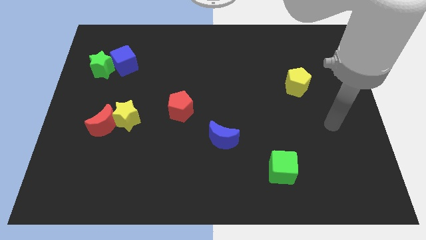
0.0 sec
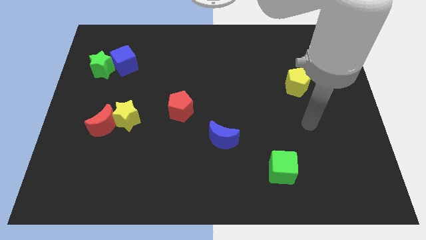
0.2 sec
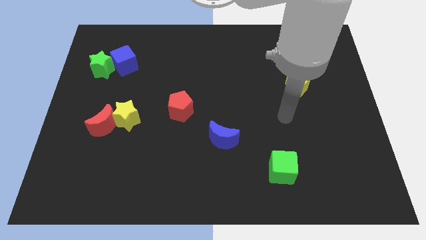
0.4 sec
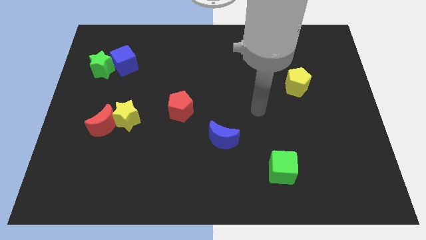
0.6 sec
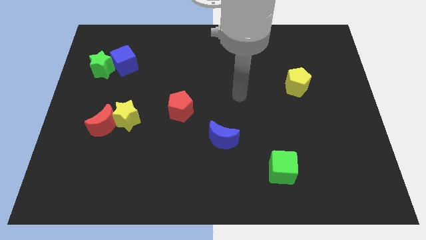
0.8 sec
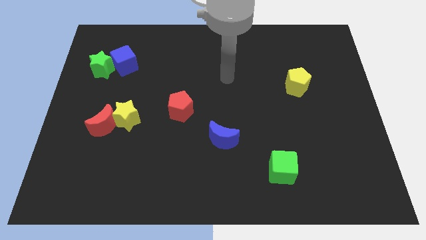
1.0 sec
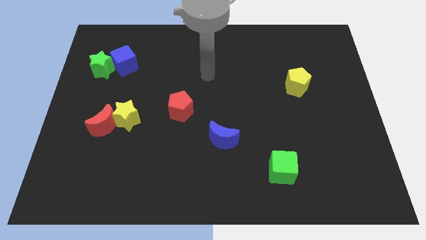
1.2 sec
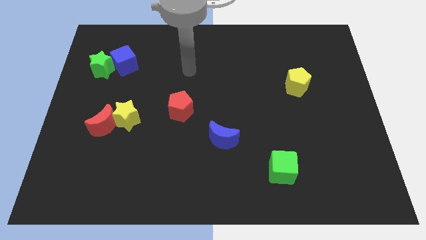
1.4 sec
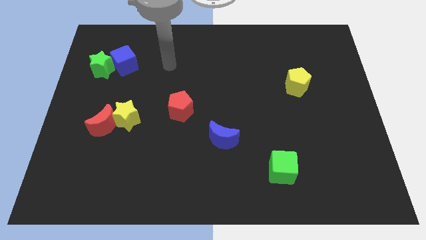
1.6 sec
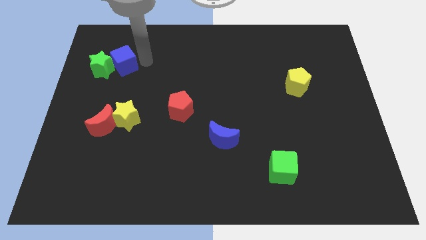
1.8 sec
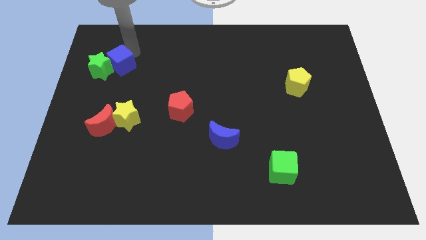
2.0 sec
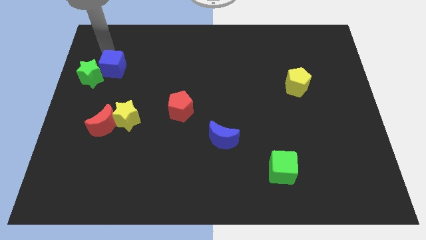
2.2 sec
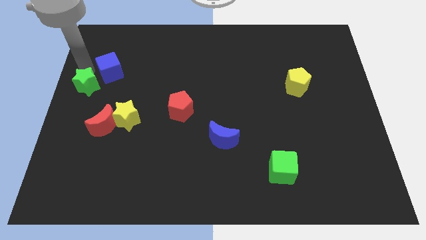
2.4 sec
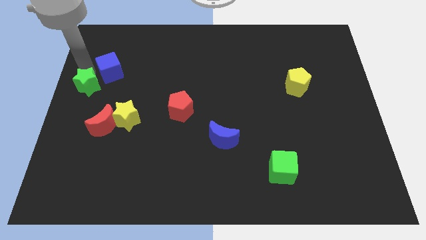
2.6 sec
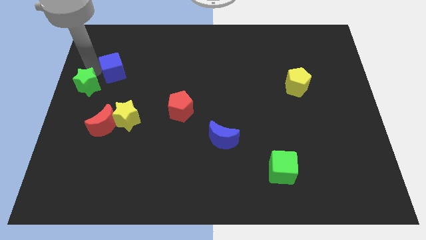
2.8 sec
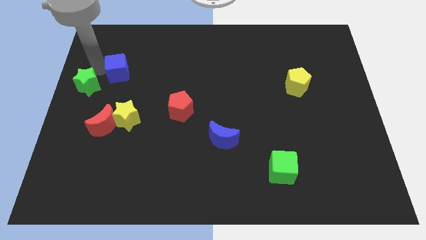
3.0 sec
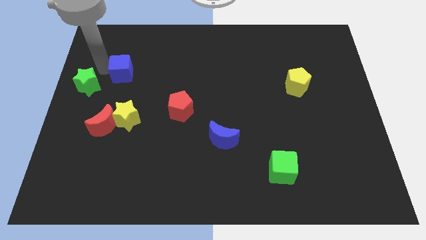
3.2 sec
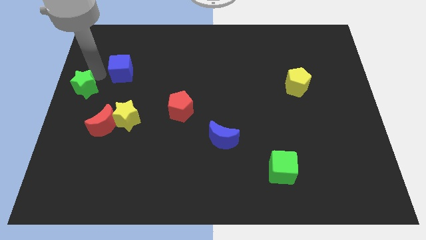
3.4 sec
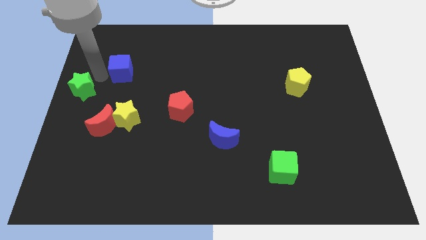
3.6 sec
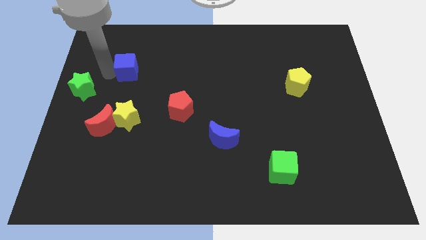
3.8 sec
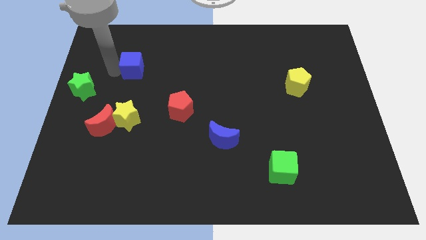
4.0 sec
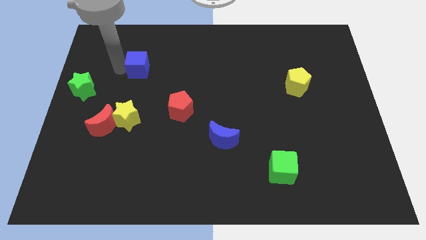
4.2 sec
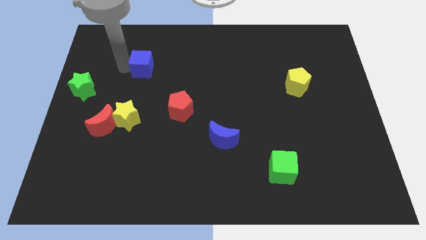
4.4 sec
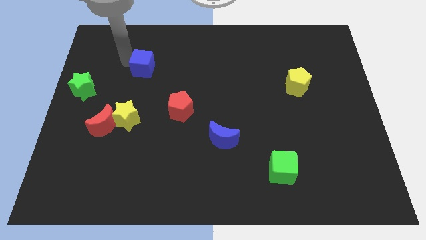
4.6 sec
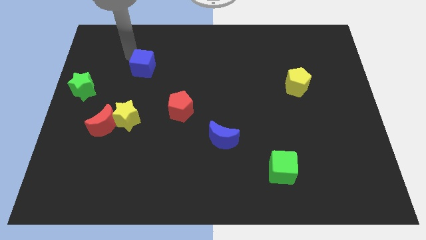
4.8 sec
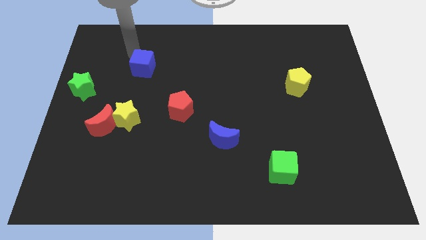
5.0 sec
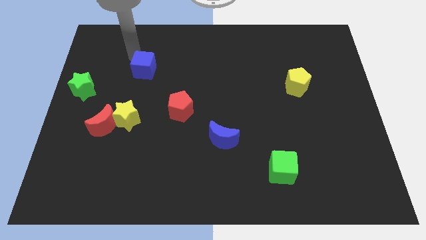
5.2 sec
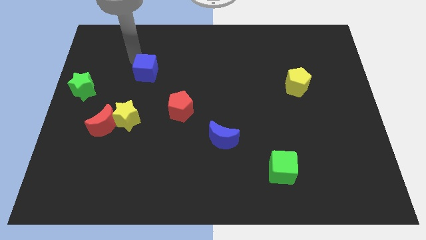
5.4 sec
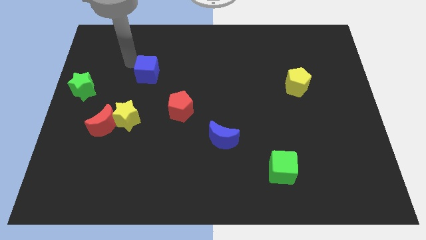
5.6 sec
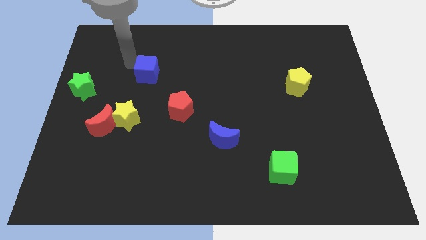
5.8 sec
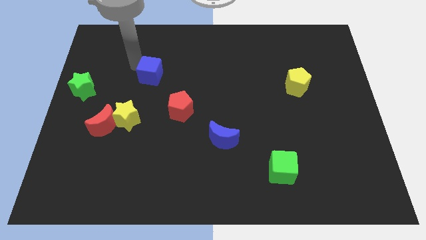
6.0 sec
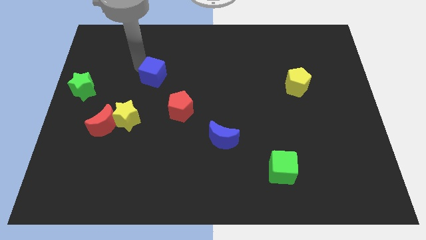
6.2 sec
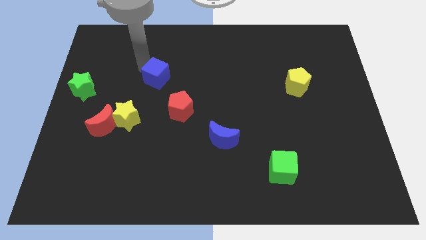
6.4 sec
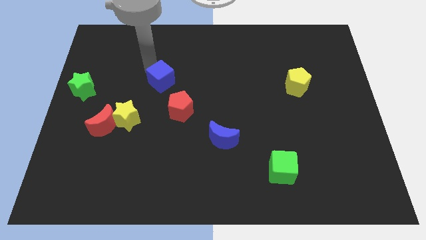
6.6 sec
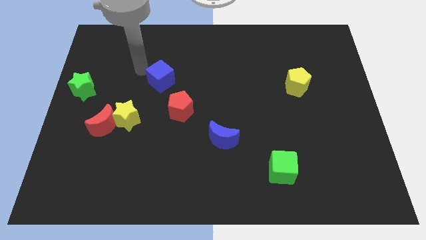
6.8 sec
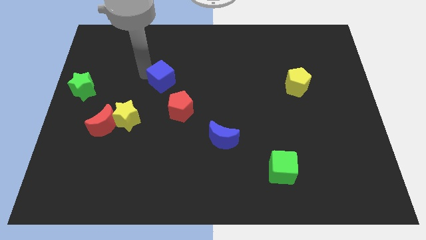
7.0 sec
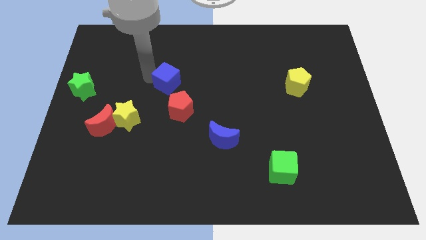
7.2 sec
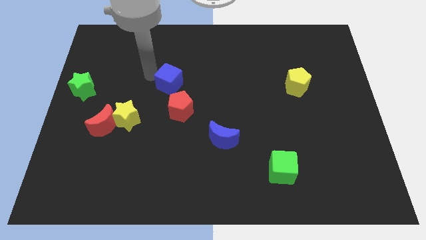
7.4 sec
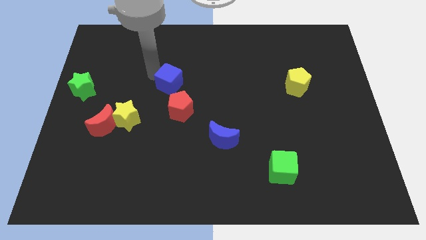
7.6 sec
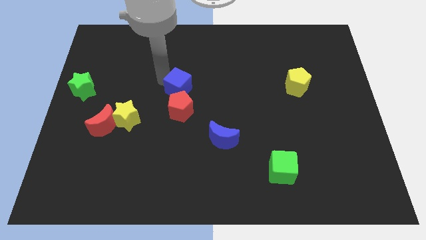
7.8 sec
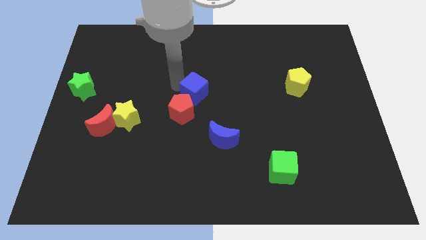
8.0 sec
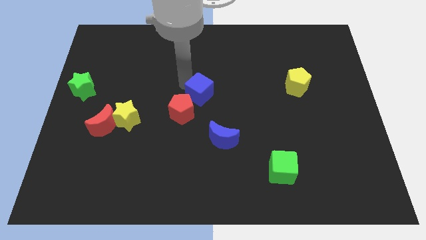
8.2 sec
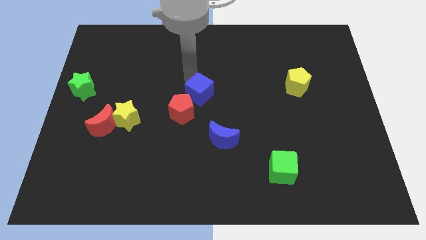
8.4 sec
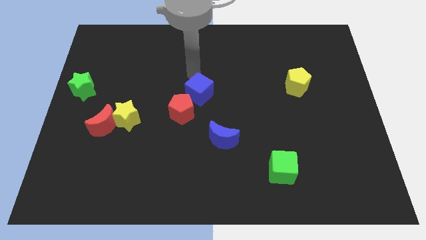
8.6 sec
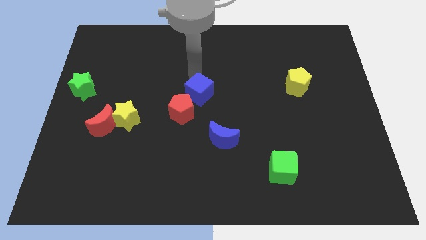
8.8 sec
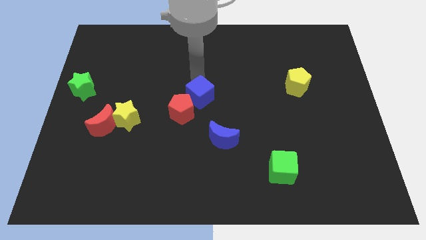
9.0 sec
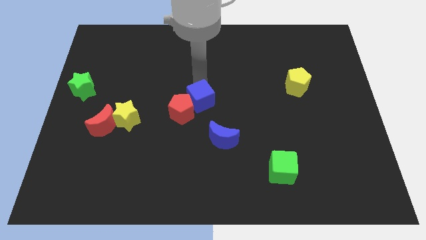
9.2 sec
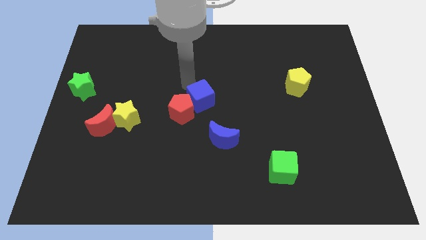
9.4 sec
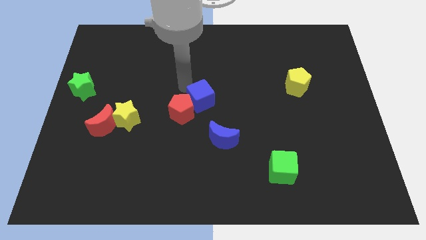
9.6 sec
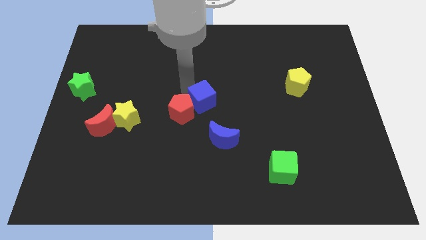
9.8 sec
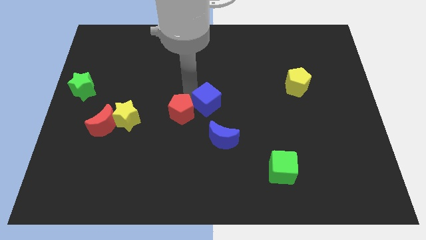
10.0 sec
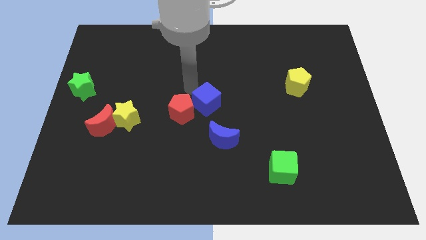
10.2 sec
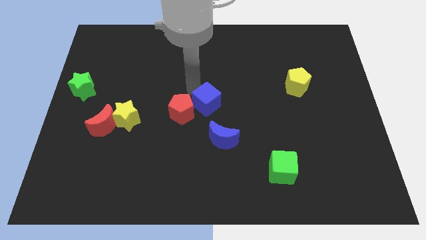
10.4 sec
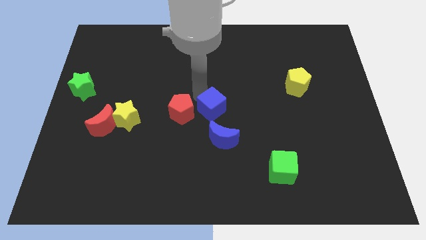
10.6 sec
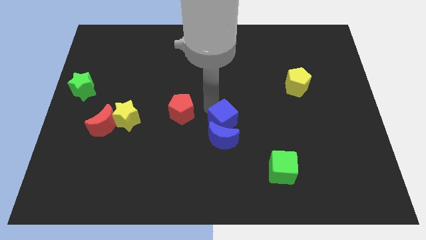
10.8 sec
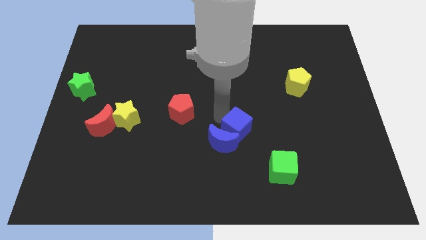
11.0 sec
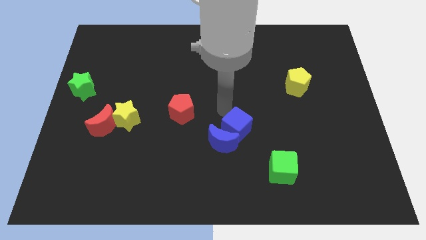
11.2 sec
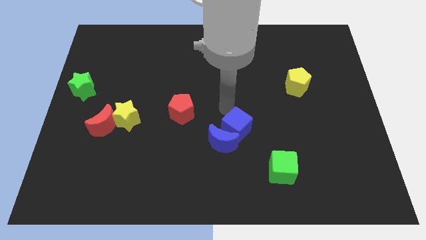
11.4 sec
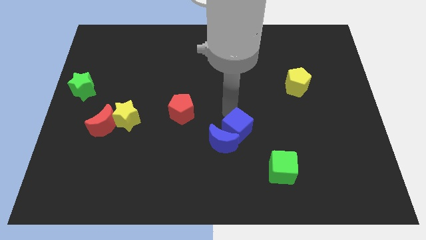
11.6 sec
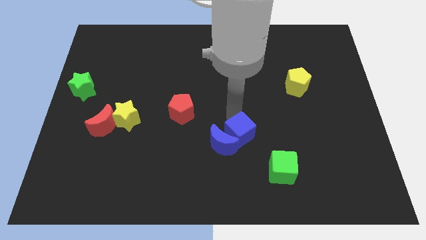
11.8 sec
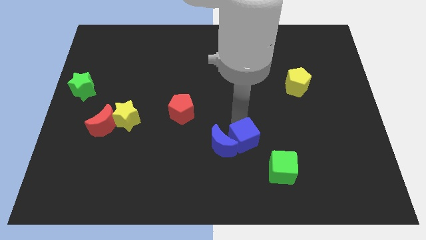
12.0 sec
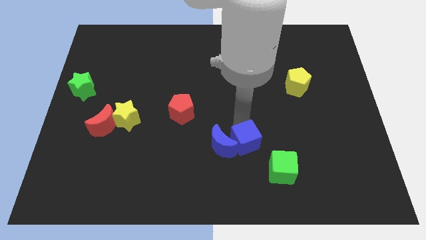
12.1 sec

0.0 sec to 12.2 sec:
move the blue cube to the bottom right of the blue moon

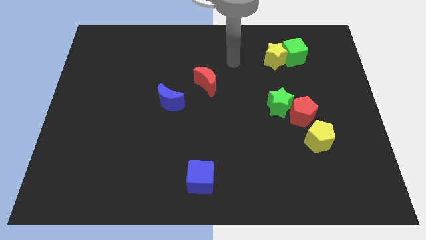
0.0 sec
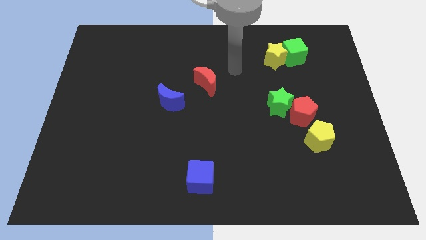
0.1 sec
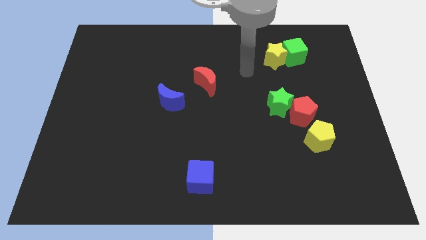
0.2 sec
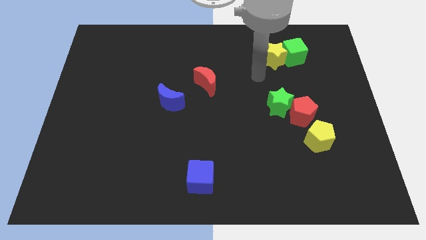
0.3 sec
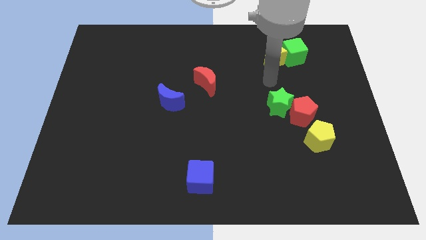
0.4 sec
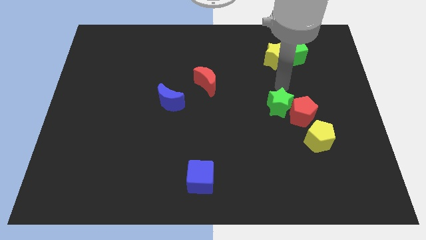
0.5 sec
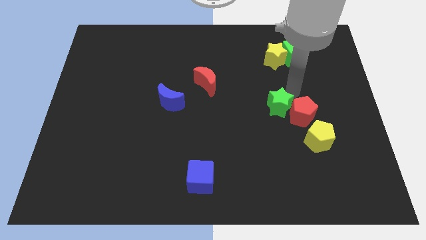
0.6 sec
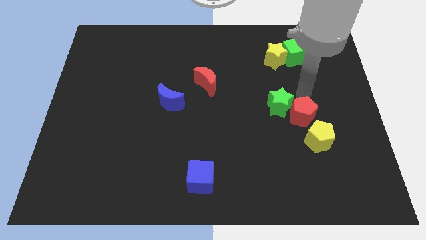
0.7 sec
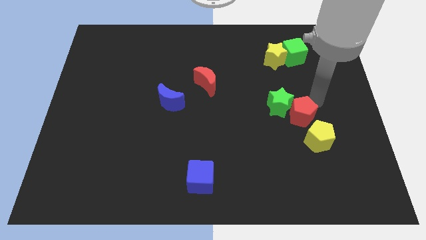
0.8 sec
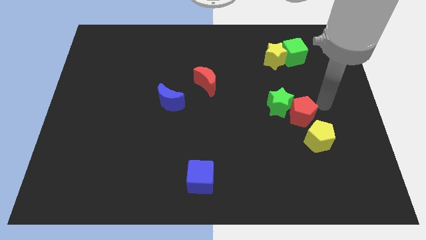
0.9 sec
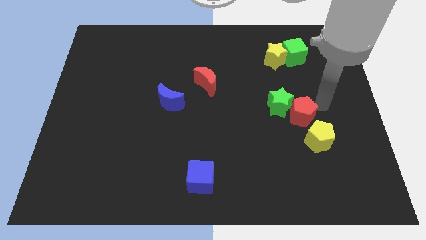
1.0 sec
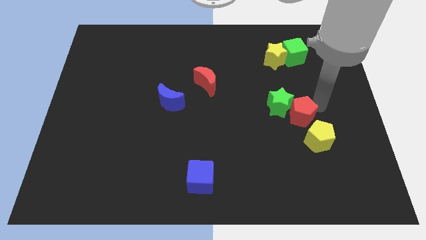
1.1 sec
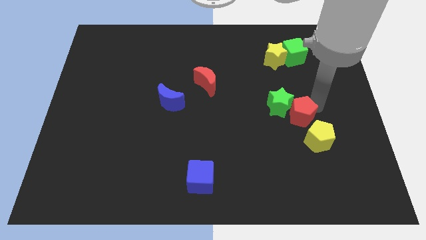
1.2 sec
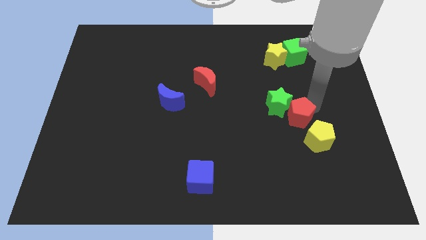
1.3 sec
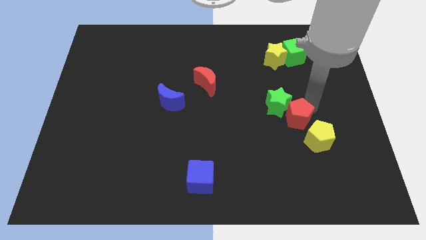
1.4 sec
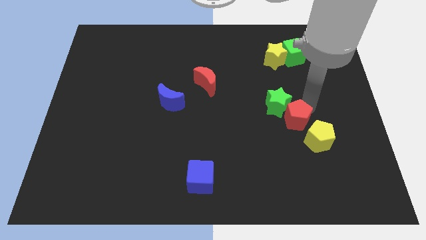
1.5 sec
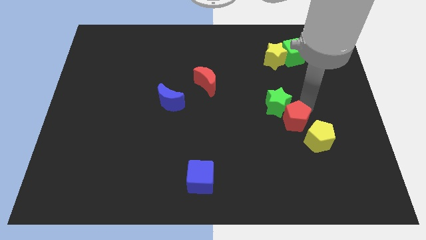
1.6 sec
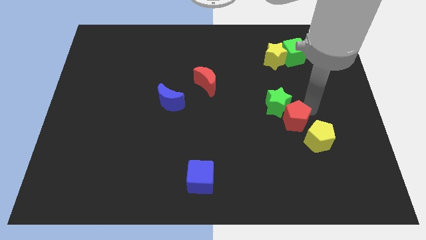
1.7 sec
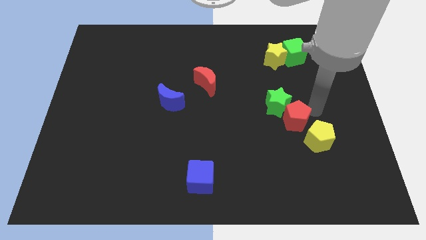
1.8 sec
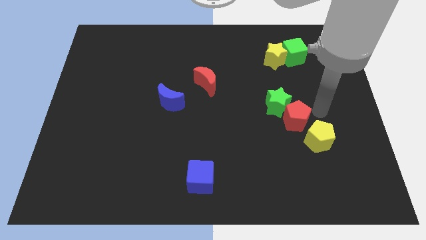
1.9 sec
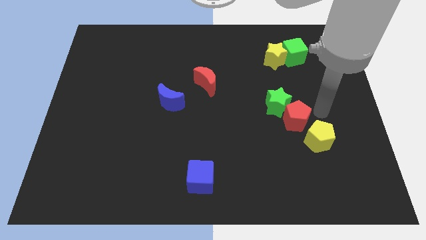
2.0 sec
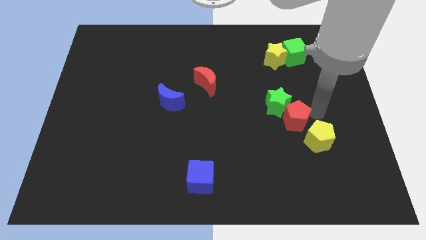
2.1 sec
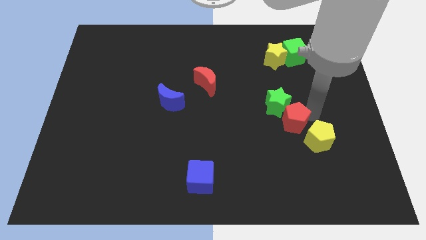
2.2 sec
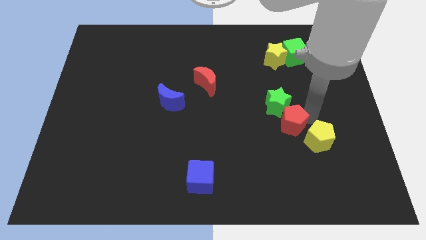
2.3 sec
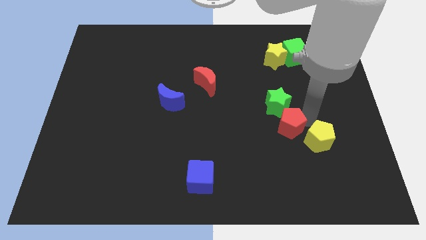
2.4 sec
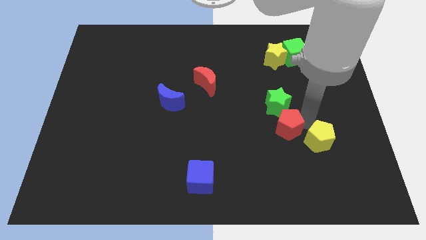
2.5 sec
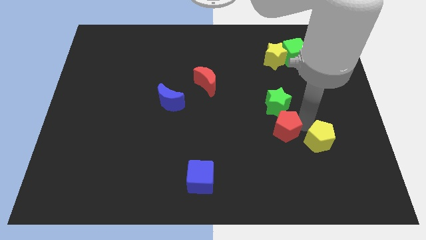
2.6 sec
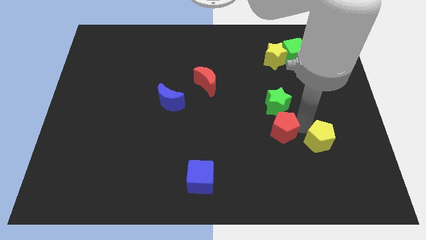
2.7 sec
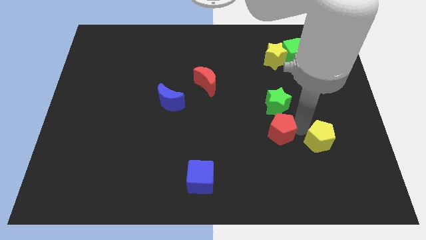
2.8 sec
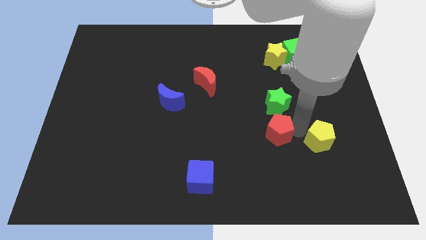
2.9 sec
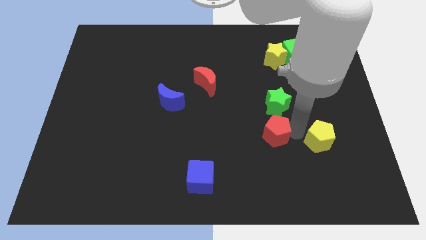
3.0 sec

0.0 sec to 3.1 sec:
push the red pentagon to the bottom left of the green star
